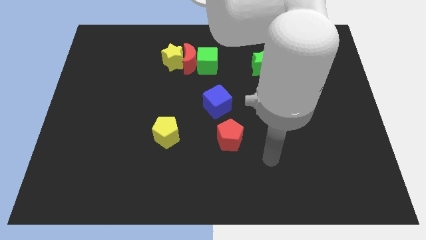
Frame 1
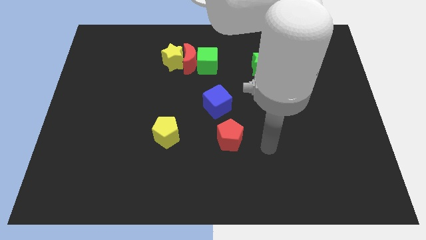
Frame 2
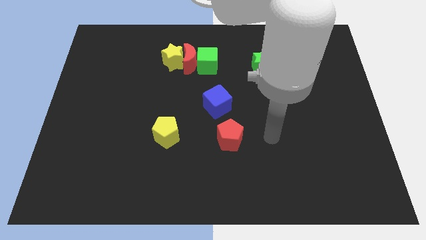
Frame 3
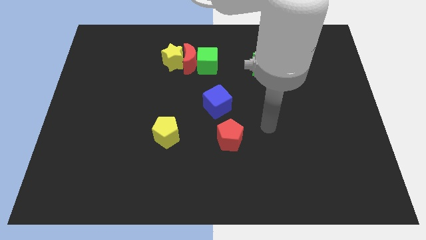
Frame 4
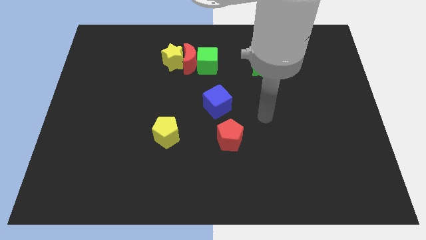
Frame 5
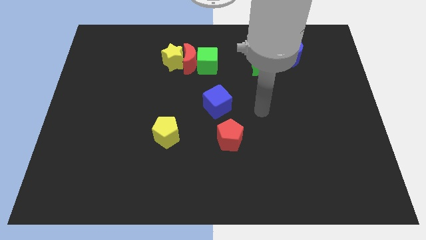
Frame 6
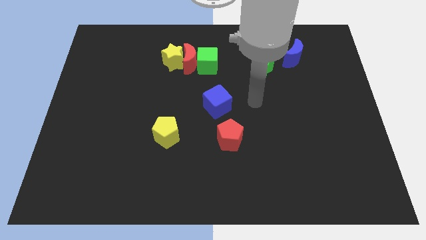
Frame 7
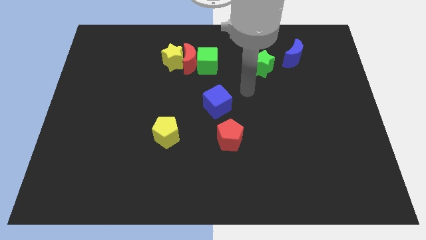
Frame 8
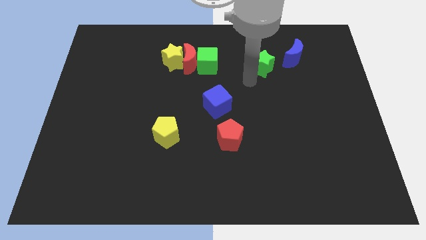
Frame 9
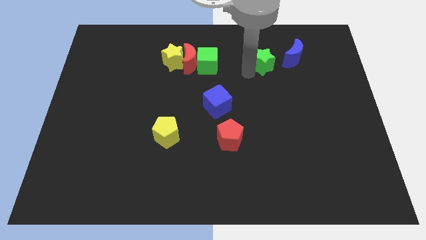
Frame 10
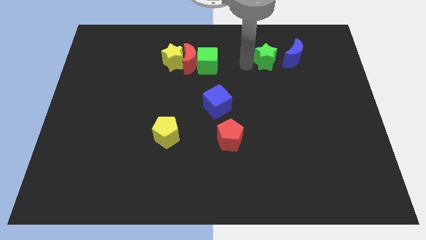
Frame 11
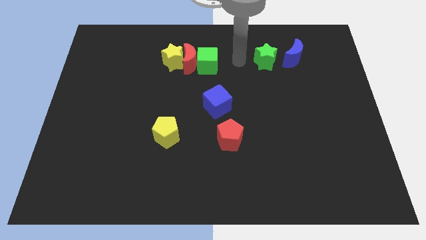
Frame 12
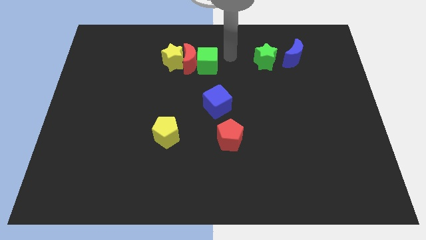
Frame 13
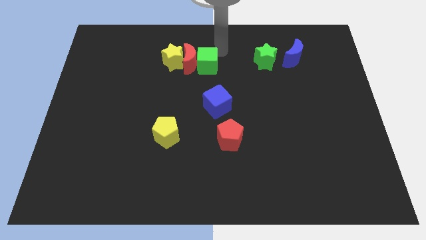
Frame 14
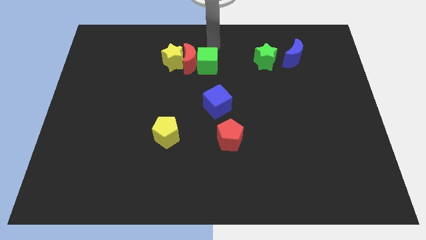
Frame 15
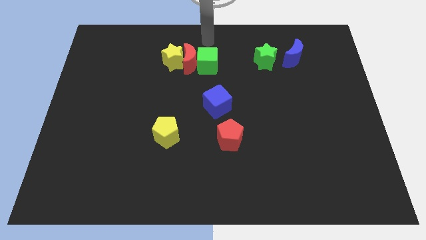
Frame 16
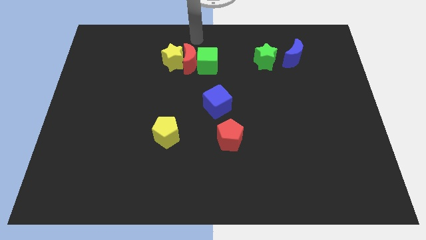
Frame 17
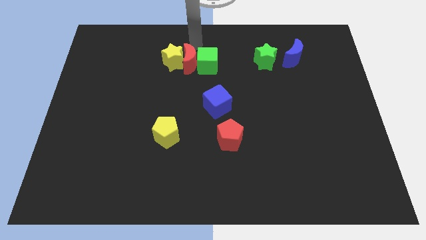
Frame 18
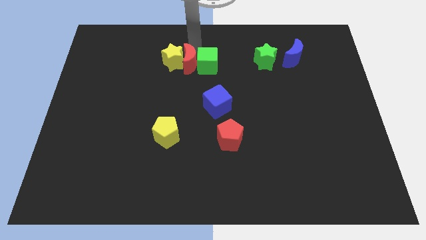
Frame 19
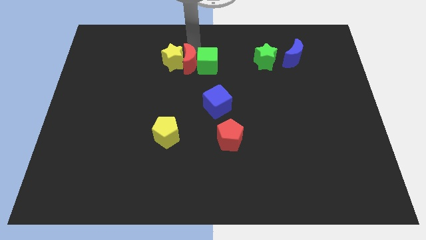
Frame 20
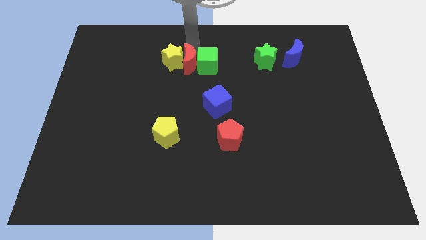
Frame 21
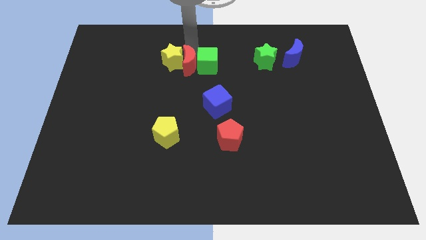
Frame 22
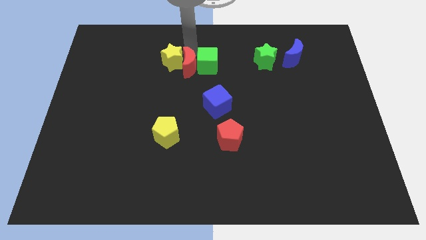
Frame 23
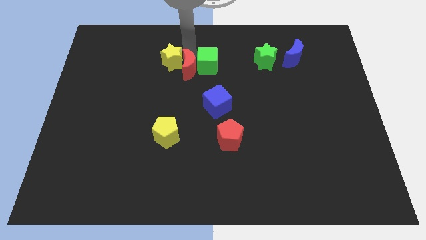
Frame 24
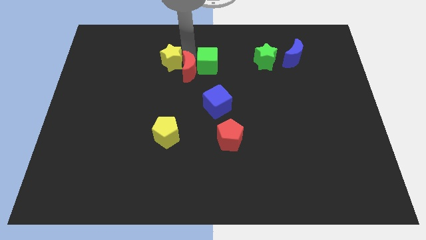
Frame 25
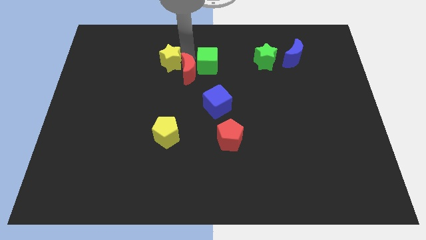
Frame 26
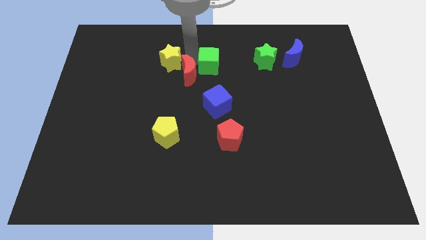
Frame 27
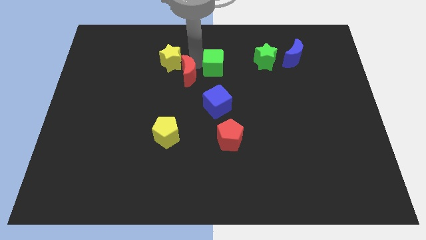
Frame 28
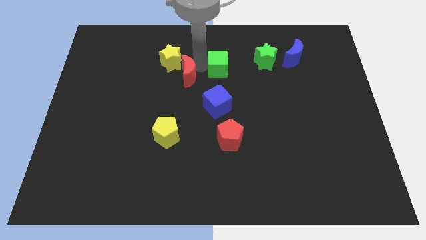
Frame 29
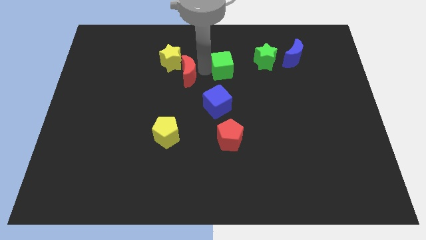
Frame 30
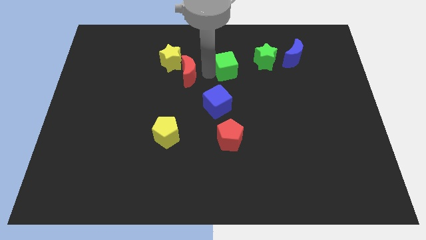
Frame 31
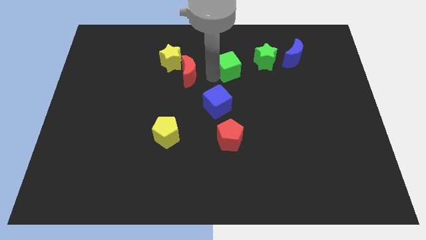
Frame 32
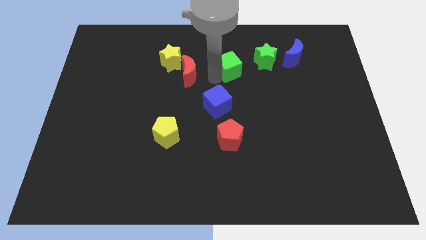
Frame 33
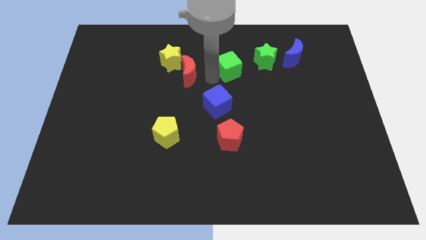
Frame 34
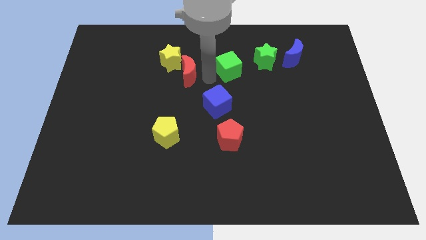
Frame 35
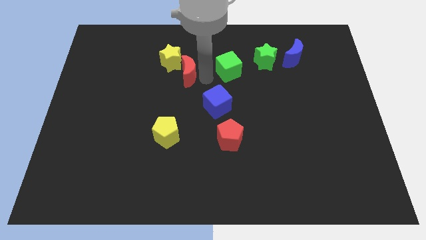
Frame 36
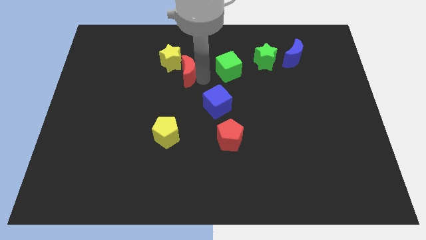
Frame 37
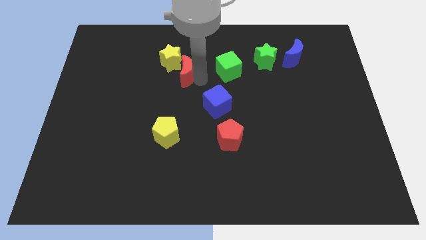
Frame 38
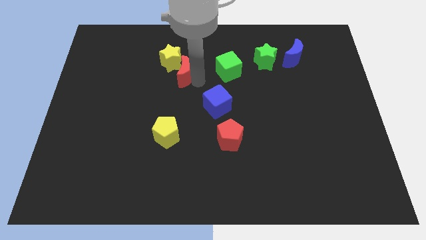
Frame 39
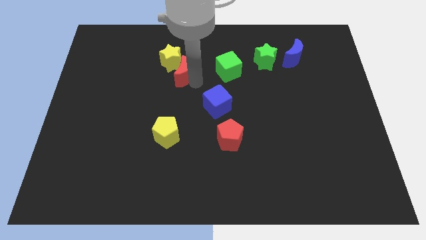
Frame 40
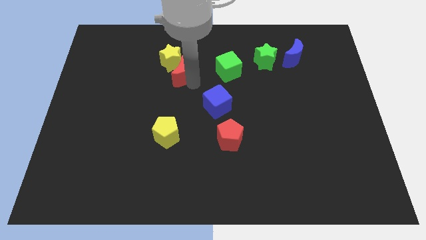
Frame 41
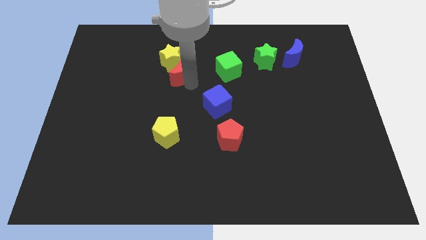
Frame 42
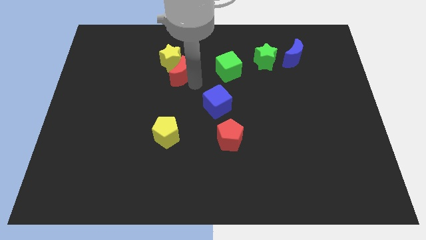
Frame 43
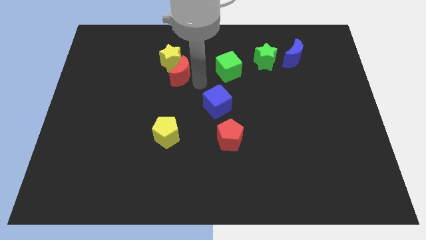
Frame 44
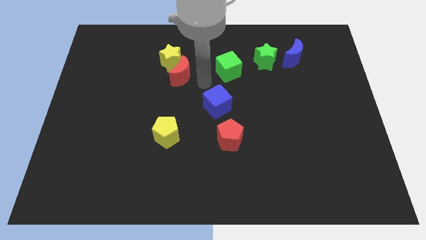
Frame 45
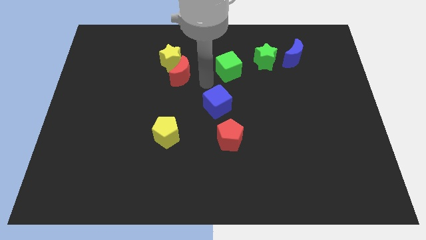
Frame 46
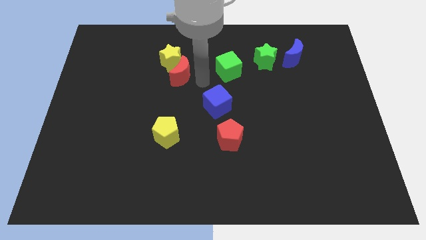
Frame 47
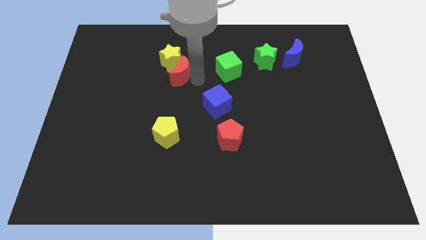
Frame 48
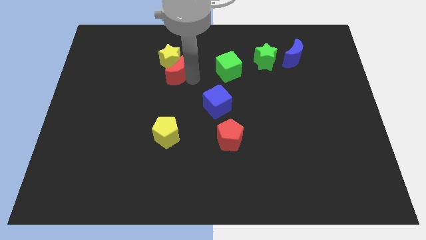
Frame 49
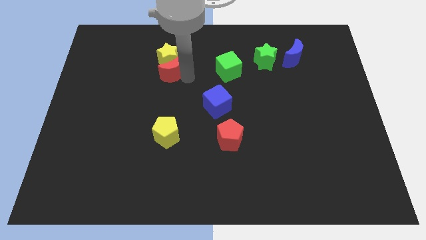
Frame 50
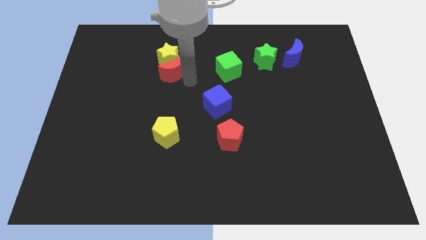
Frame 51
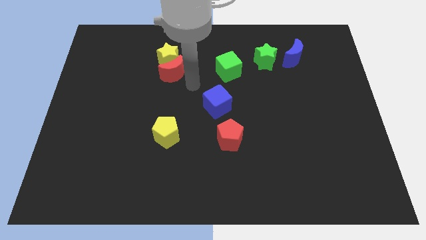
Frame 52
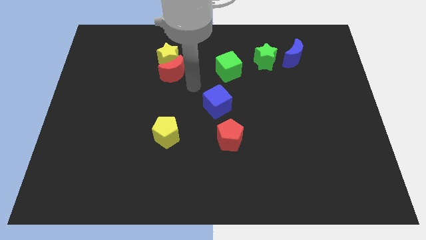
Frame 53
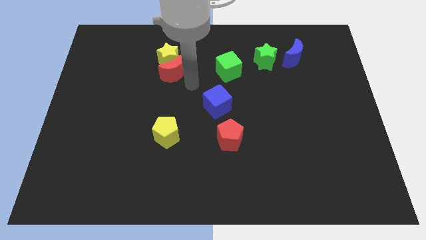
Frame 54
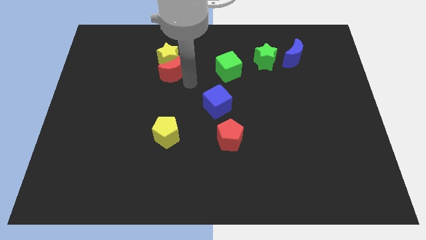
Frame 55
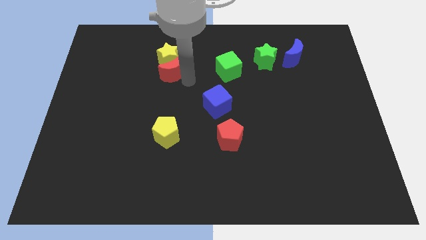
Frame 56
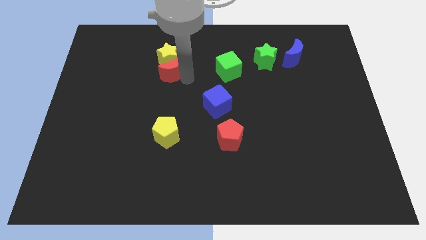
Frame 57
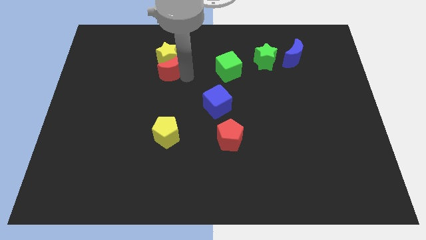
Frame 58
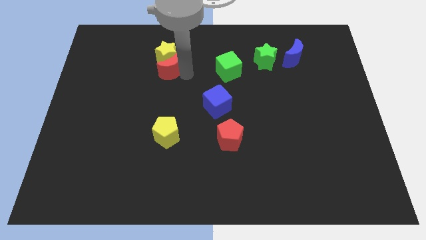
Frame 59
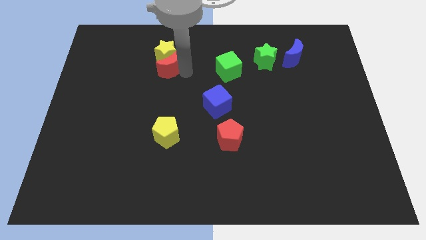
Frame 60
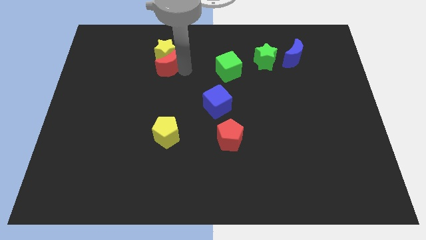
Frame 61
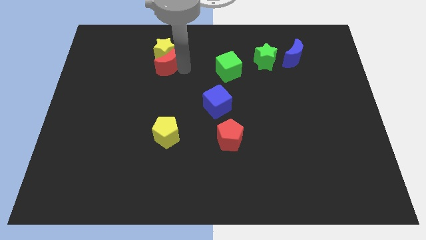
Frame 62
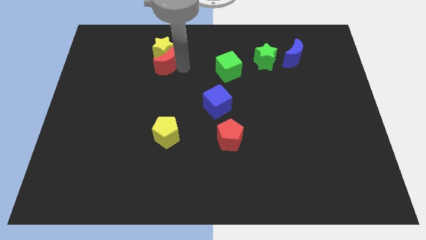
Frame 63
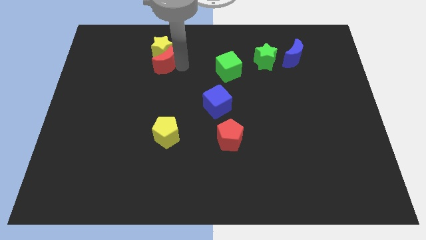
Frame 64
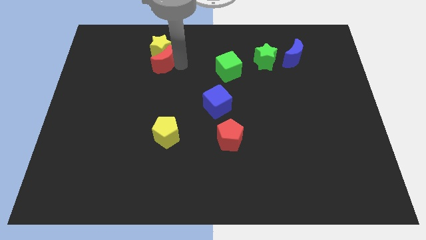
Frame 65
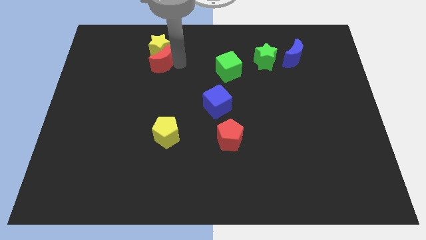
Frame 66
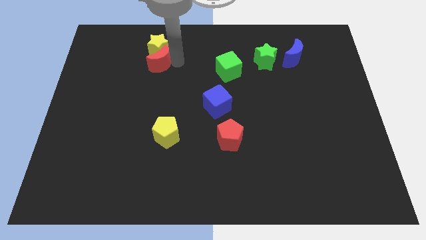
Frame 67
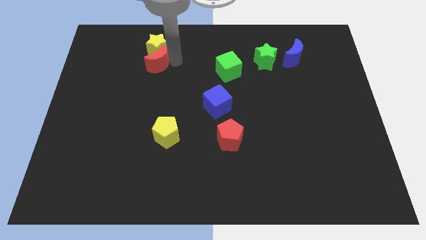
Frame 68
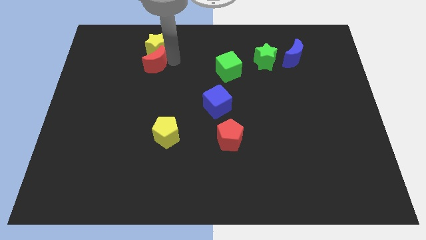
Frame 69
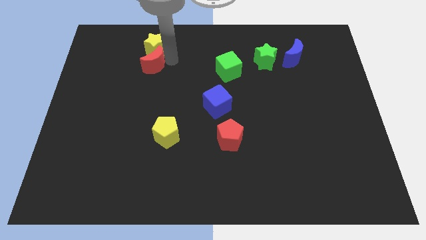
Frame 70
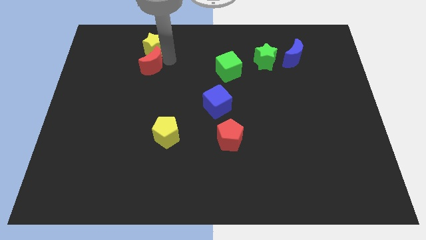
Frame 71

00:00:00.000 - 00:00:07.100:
pull the red moon apart from the yellow star and green cube

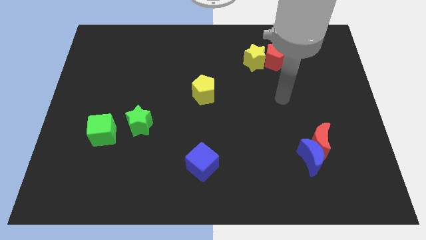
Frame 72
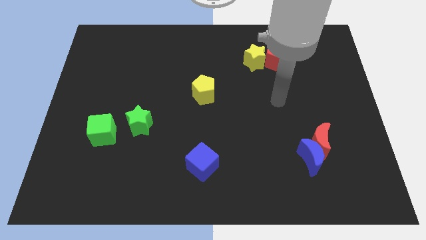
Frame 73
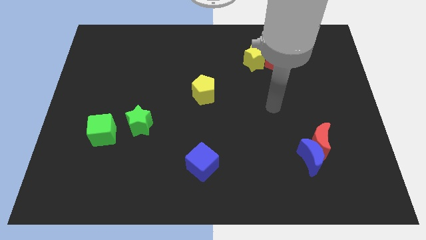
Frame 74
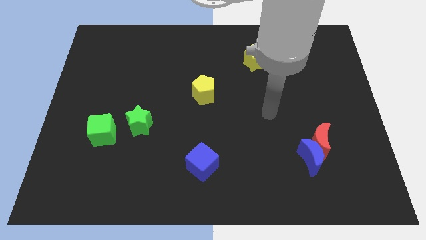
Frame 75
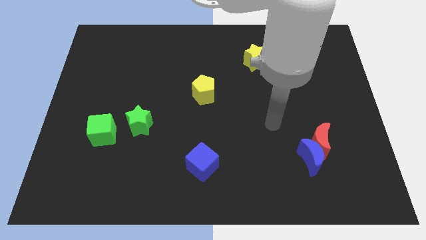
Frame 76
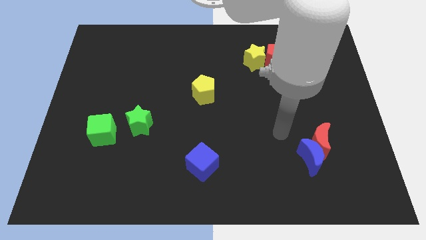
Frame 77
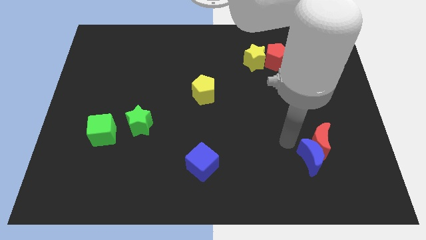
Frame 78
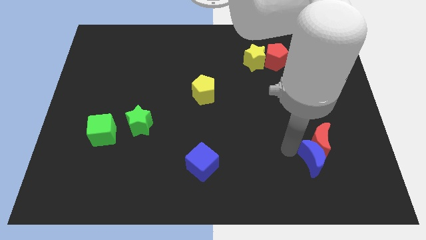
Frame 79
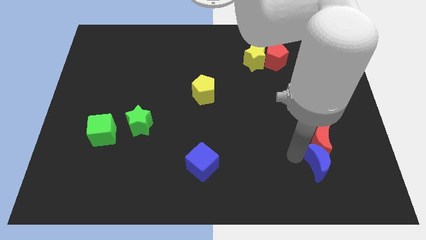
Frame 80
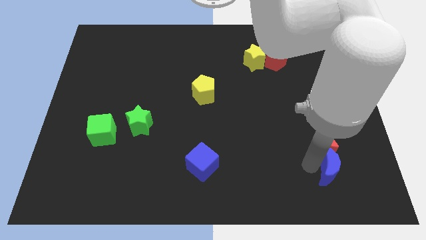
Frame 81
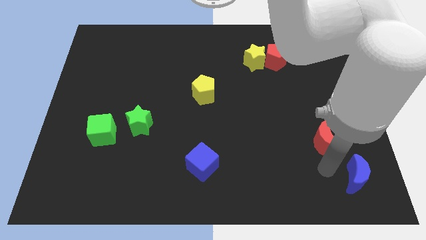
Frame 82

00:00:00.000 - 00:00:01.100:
move the red moon away from the blue moon

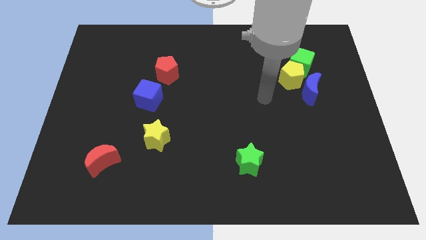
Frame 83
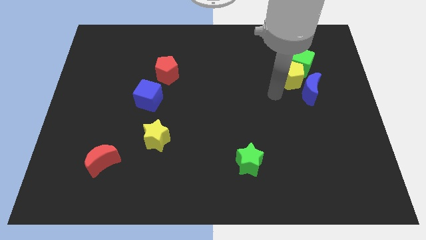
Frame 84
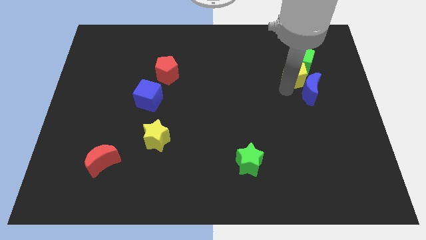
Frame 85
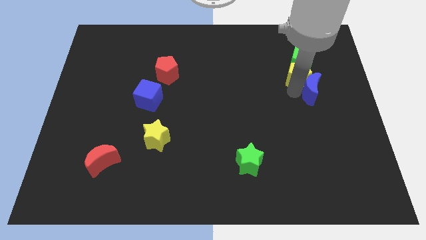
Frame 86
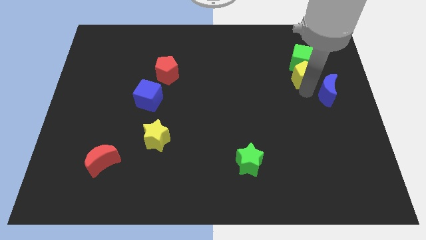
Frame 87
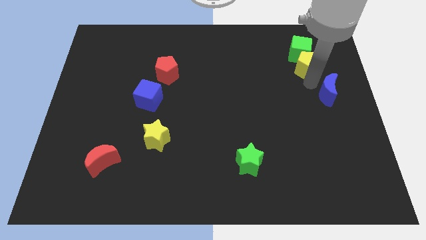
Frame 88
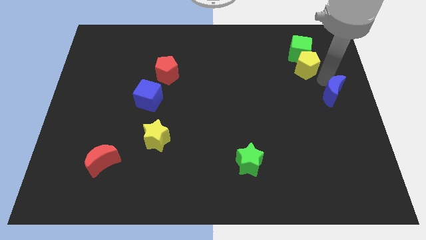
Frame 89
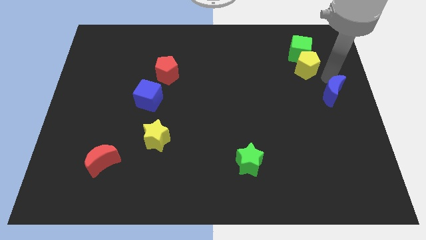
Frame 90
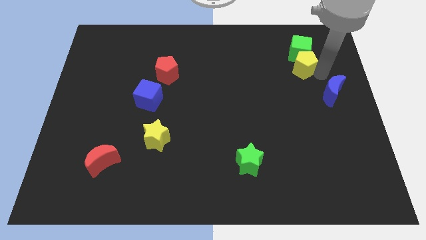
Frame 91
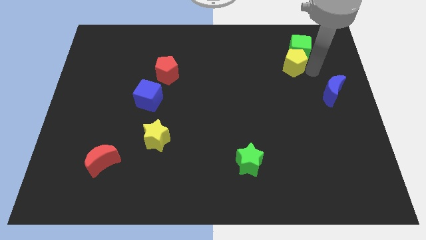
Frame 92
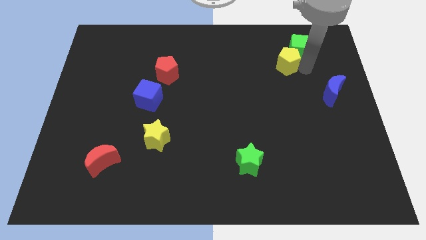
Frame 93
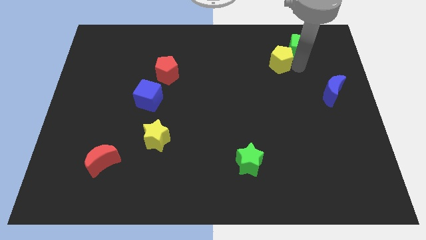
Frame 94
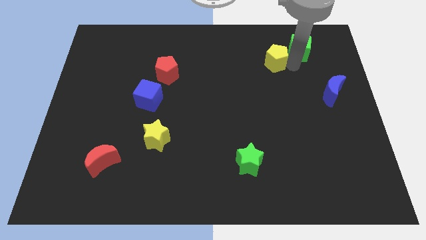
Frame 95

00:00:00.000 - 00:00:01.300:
pull the yellow pentagon apart from the green cube and blue moon
